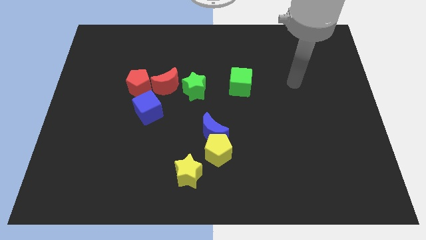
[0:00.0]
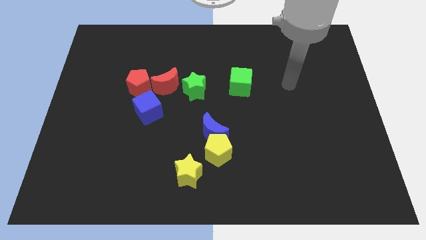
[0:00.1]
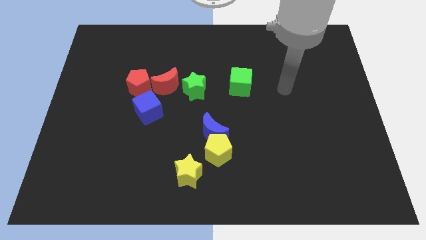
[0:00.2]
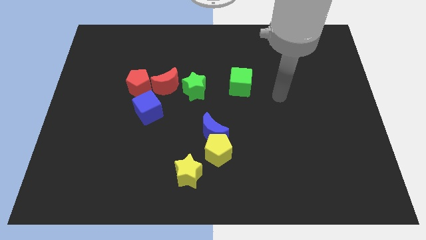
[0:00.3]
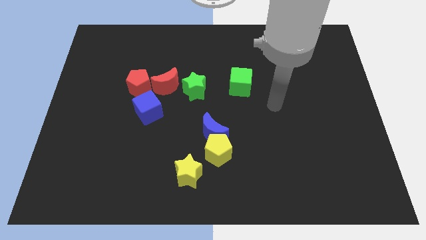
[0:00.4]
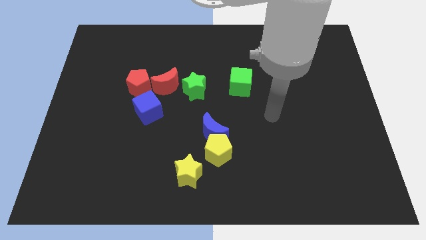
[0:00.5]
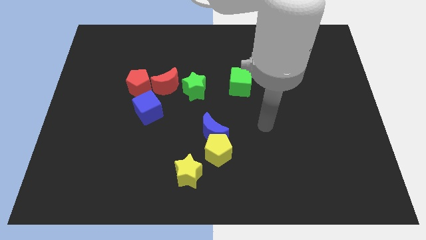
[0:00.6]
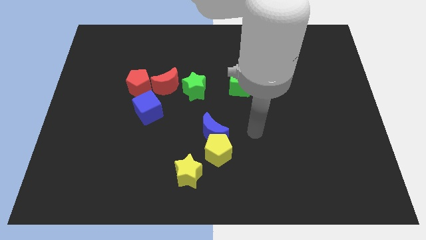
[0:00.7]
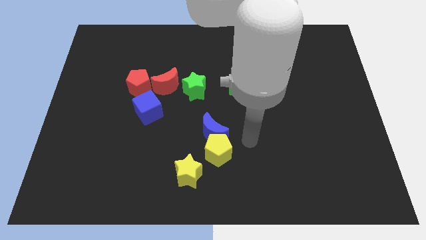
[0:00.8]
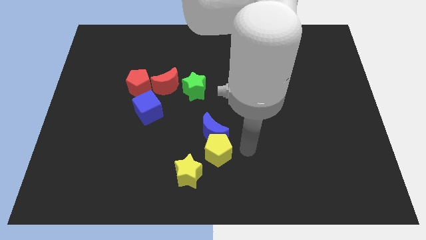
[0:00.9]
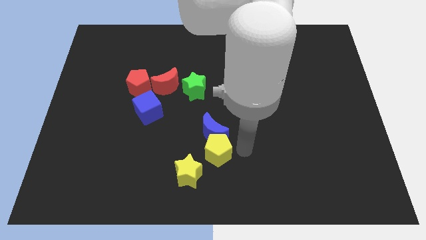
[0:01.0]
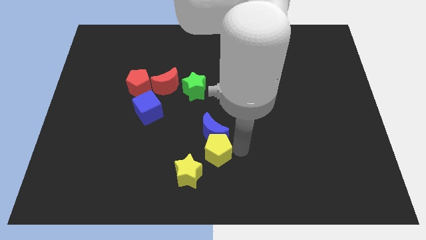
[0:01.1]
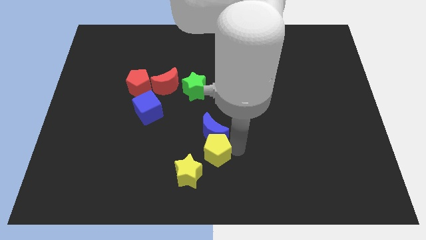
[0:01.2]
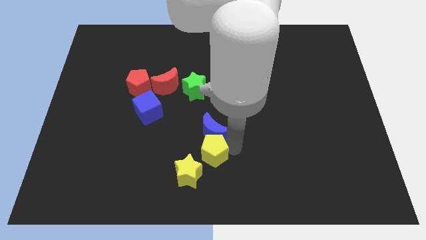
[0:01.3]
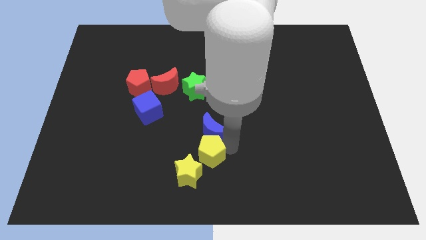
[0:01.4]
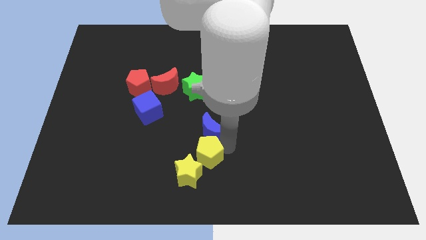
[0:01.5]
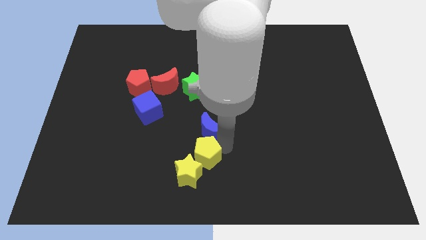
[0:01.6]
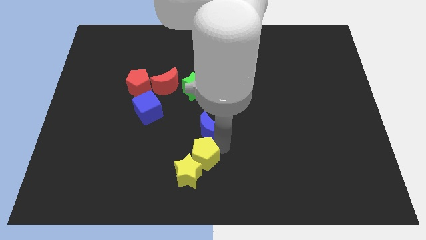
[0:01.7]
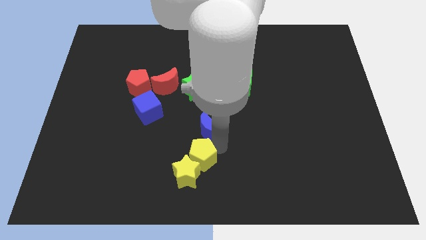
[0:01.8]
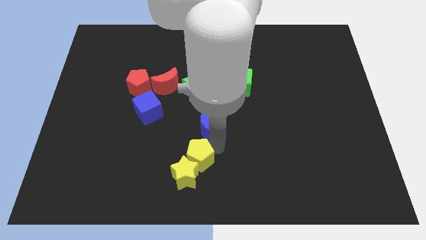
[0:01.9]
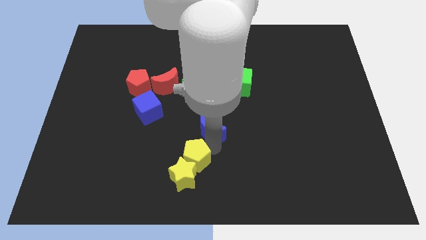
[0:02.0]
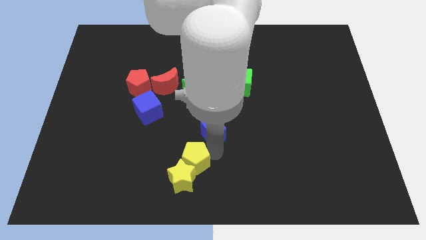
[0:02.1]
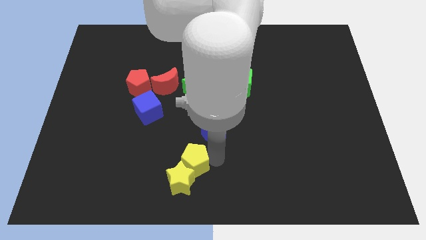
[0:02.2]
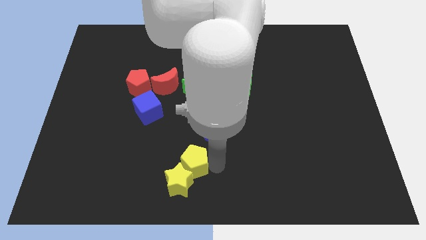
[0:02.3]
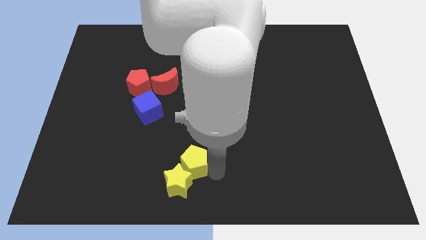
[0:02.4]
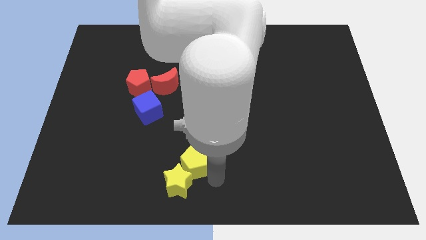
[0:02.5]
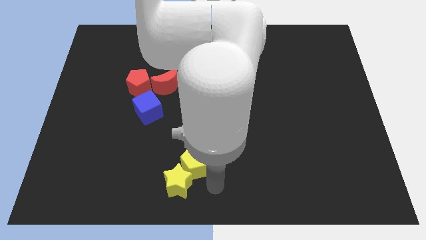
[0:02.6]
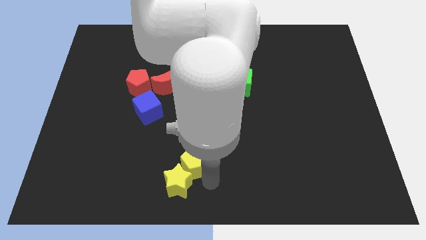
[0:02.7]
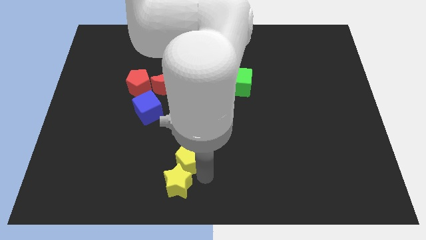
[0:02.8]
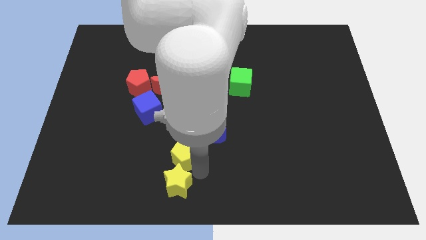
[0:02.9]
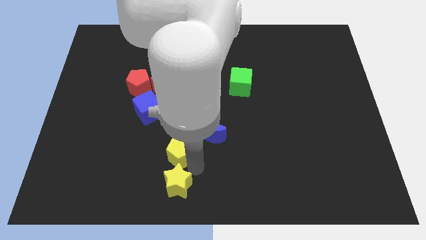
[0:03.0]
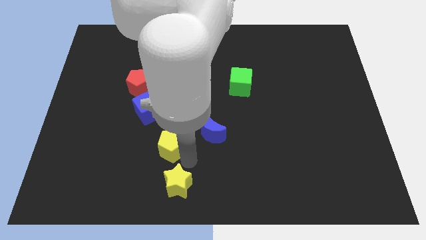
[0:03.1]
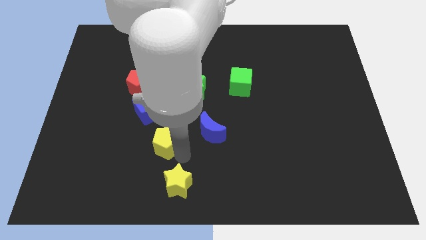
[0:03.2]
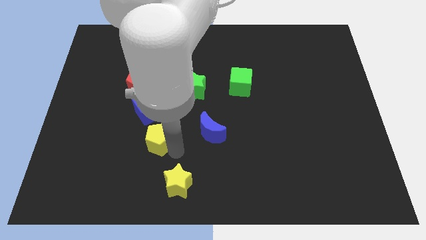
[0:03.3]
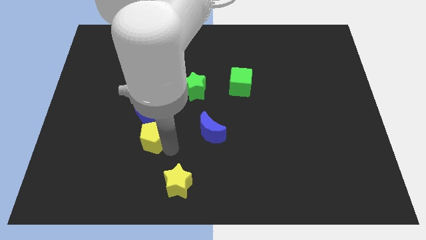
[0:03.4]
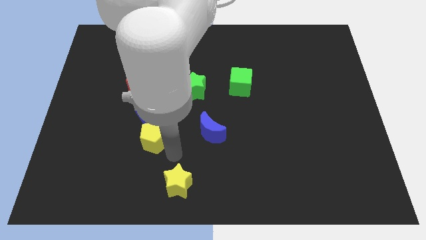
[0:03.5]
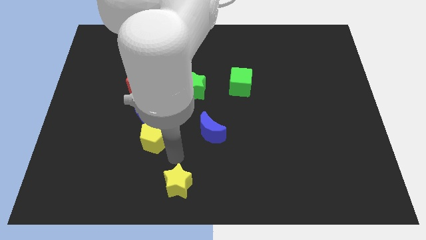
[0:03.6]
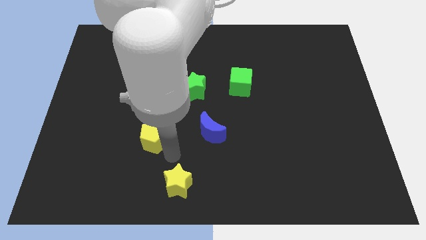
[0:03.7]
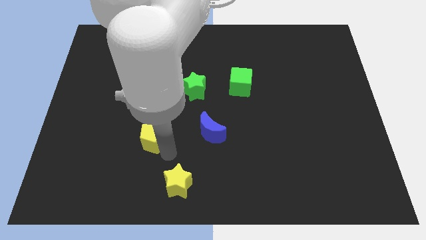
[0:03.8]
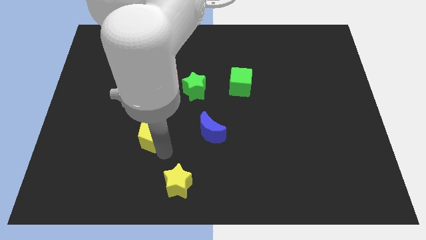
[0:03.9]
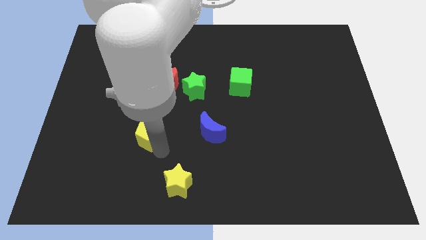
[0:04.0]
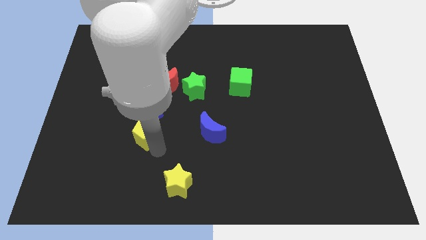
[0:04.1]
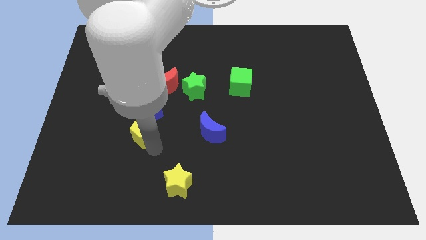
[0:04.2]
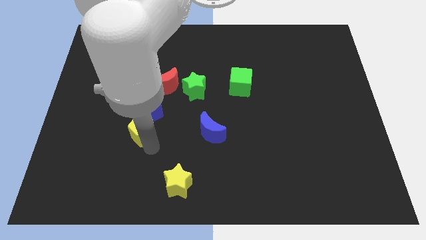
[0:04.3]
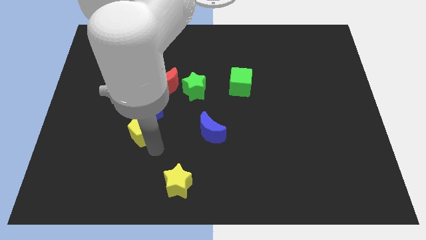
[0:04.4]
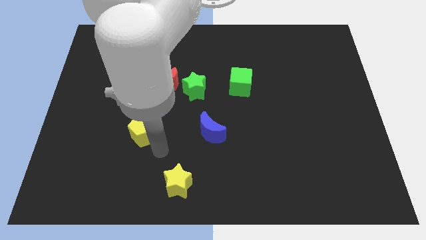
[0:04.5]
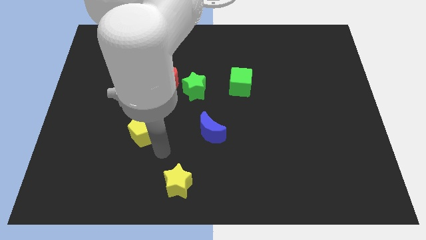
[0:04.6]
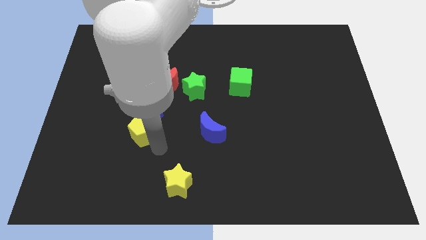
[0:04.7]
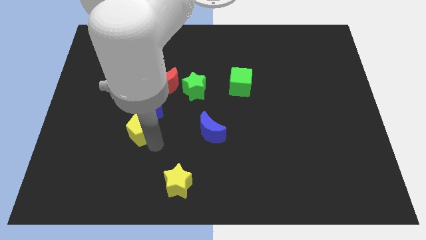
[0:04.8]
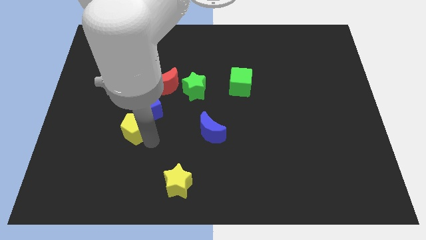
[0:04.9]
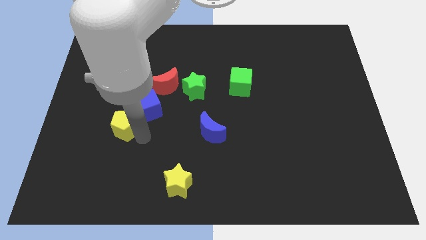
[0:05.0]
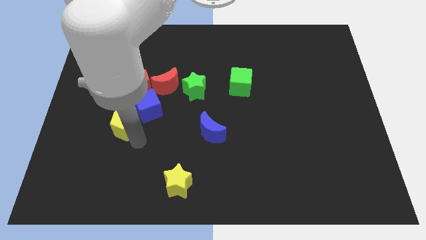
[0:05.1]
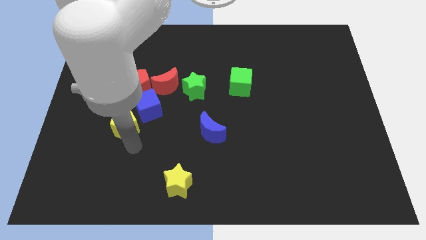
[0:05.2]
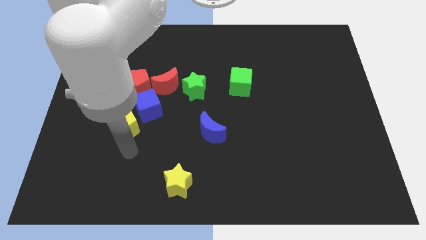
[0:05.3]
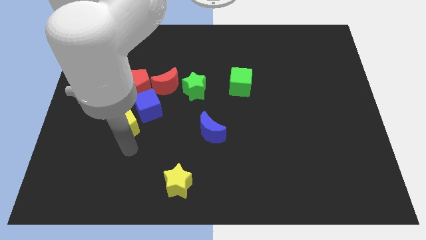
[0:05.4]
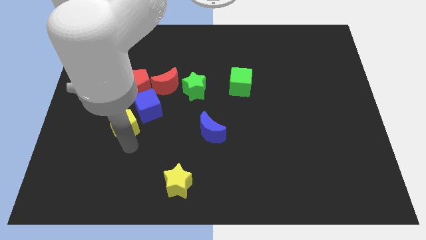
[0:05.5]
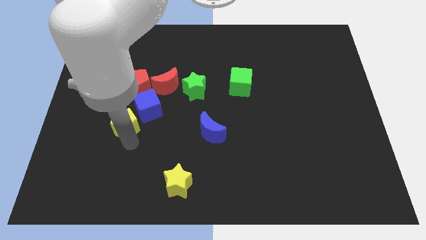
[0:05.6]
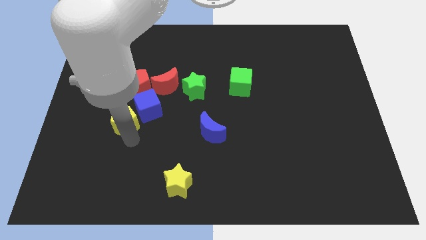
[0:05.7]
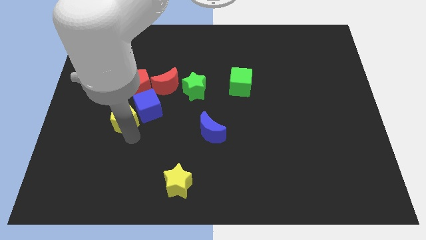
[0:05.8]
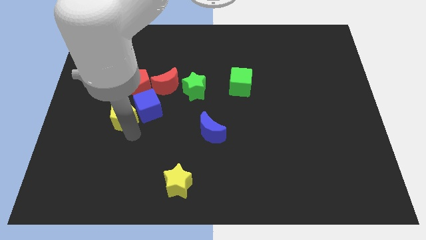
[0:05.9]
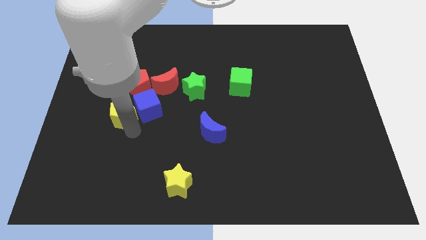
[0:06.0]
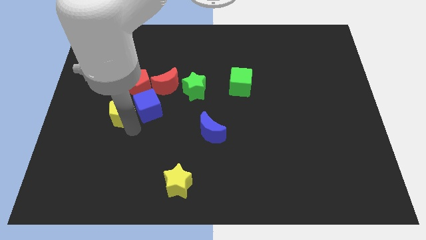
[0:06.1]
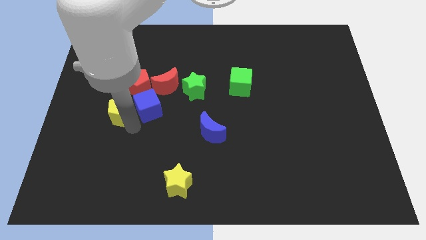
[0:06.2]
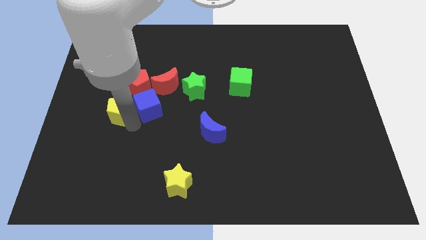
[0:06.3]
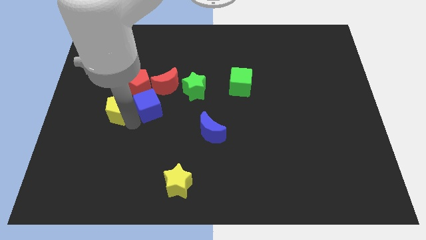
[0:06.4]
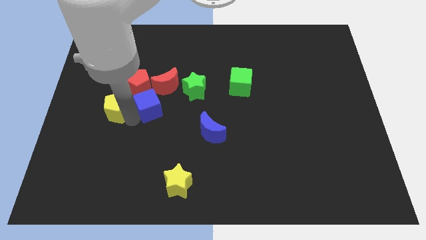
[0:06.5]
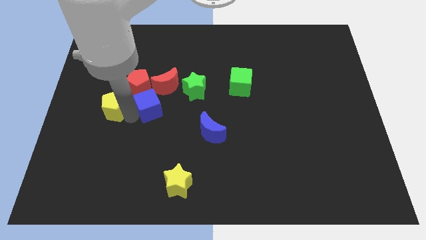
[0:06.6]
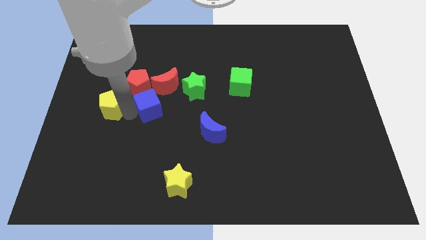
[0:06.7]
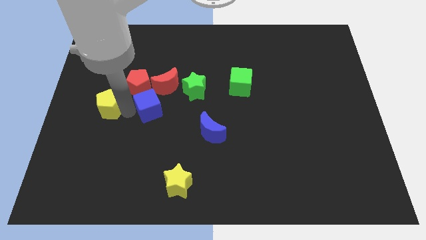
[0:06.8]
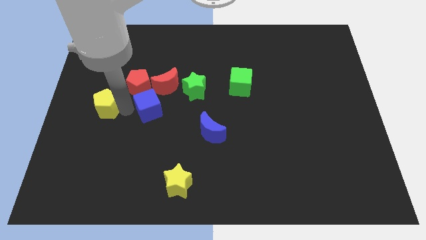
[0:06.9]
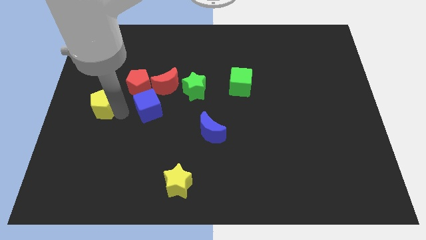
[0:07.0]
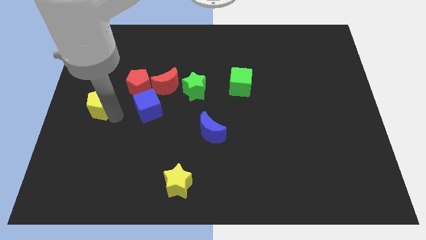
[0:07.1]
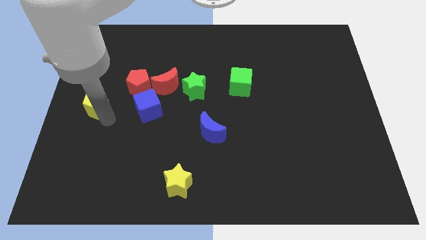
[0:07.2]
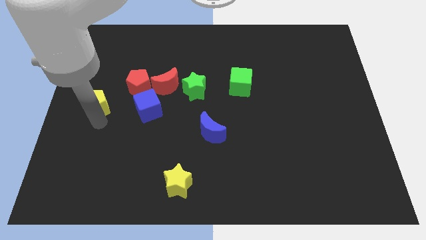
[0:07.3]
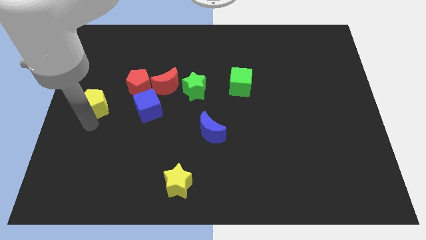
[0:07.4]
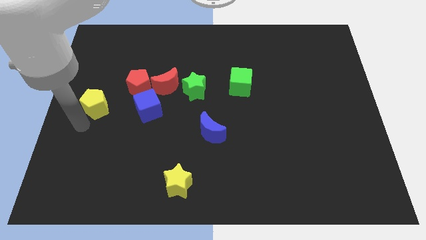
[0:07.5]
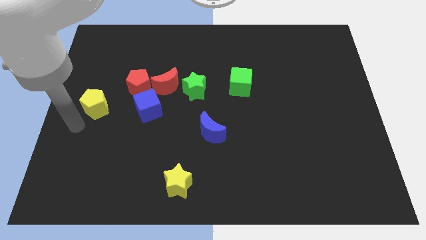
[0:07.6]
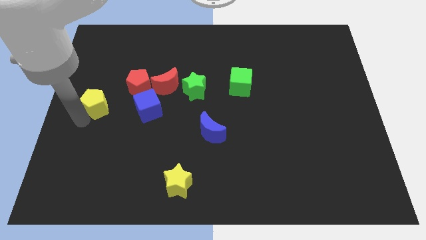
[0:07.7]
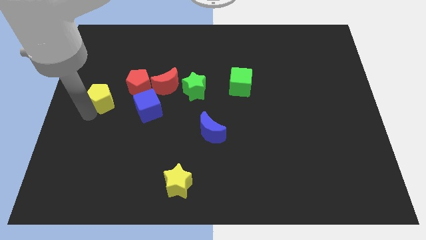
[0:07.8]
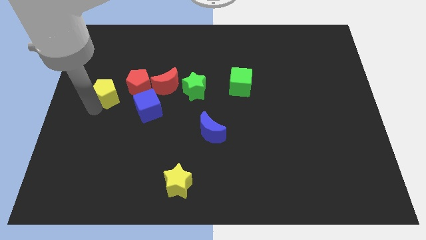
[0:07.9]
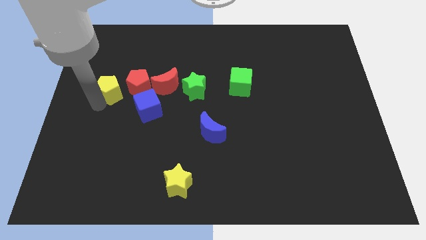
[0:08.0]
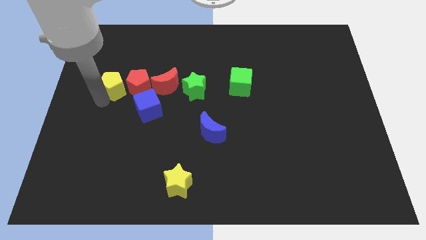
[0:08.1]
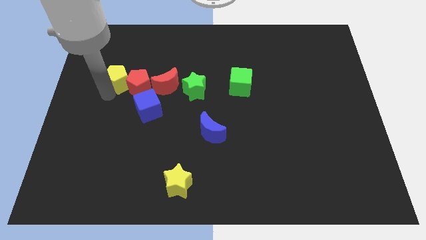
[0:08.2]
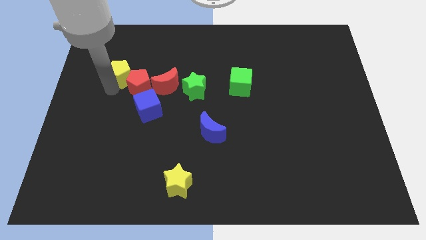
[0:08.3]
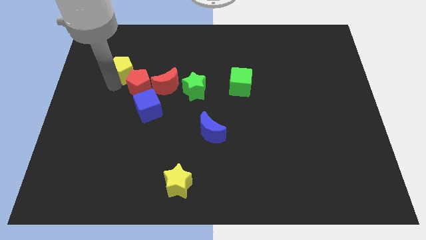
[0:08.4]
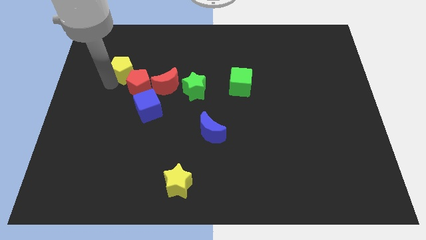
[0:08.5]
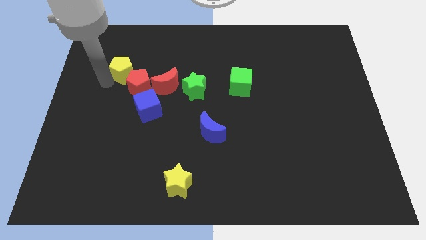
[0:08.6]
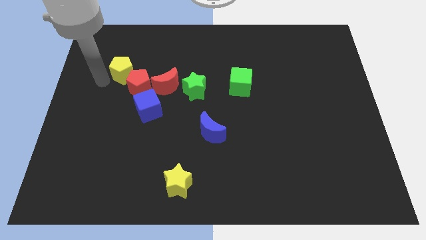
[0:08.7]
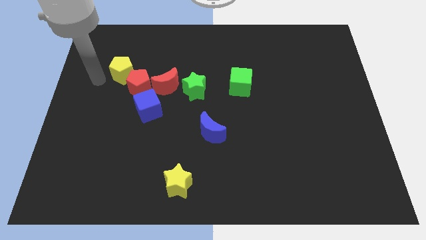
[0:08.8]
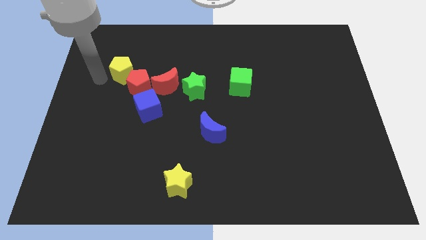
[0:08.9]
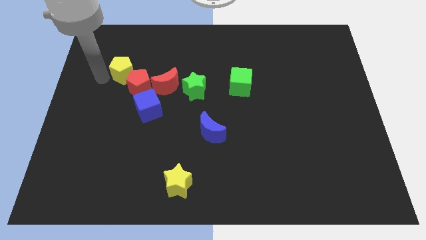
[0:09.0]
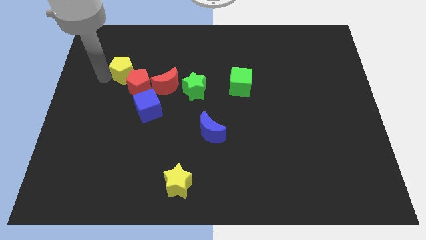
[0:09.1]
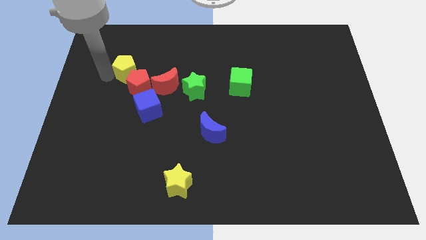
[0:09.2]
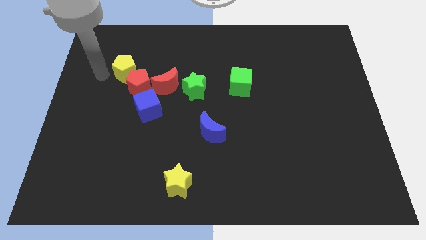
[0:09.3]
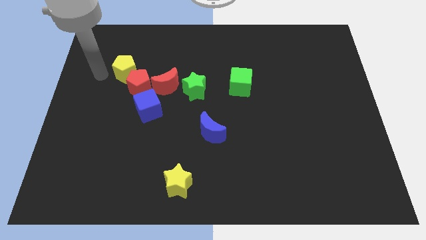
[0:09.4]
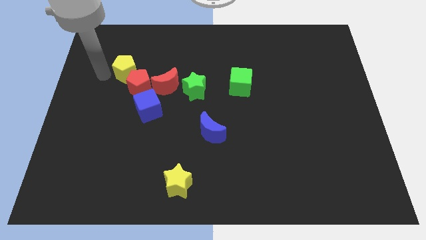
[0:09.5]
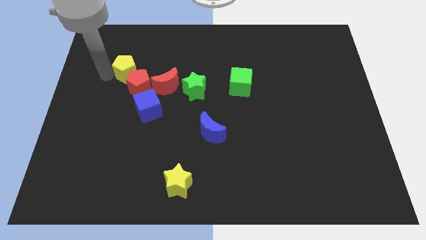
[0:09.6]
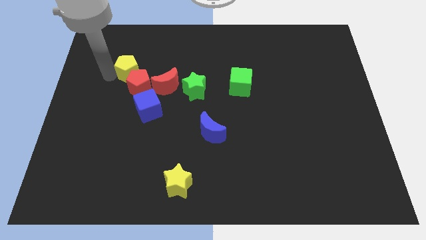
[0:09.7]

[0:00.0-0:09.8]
slide the yellow pentagon to the top left of the red moon
